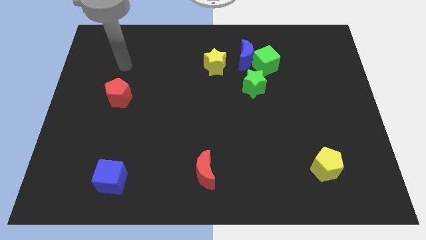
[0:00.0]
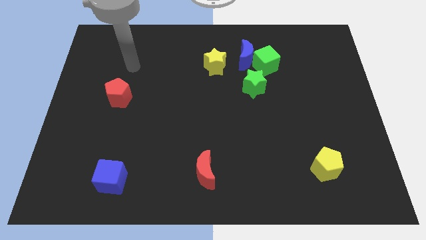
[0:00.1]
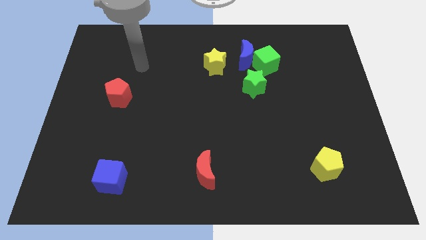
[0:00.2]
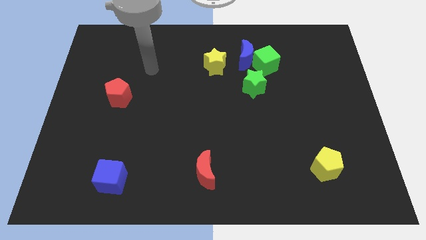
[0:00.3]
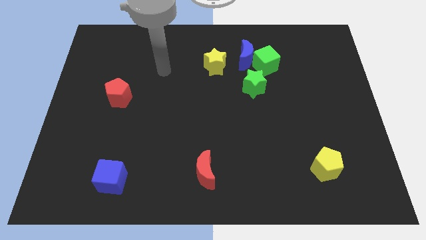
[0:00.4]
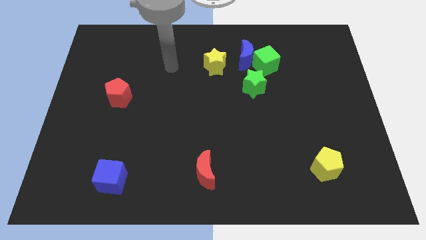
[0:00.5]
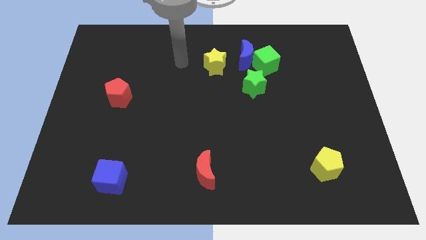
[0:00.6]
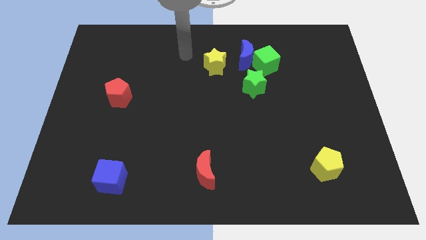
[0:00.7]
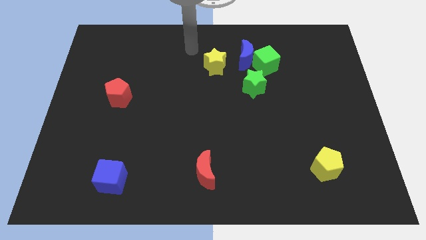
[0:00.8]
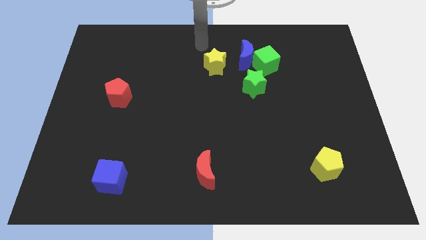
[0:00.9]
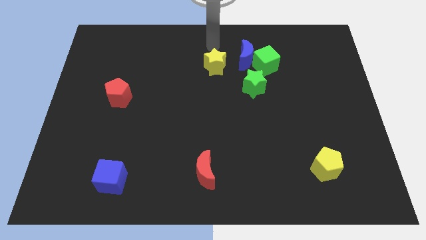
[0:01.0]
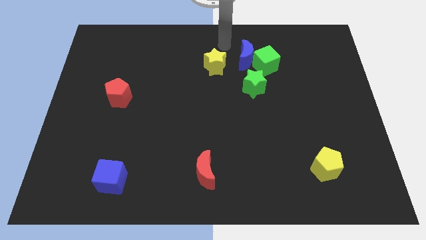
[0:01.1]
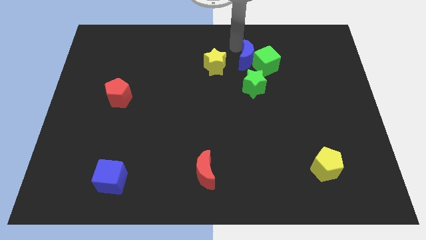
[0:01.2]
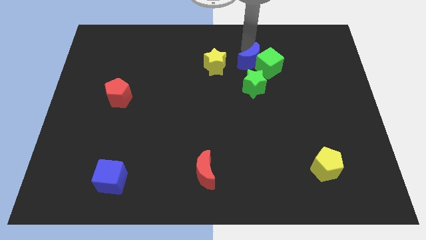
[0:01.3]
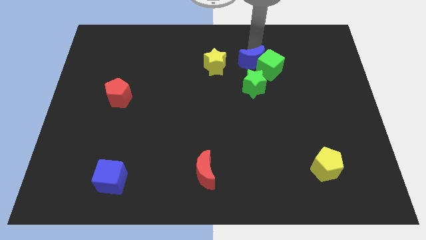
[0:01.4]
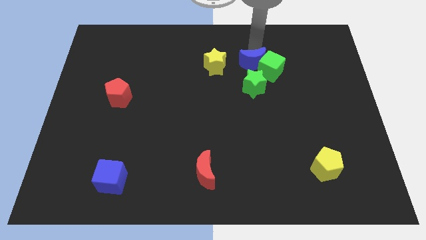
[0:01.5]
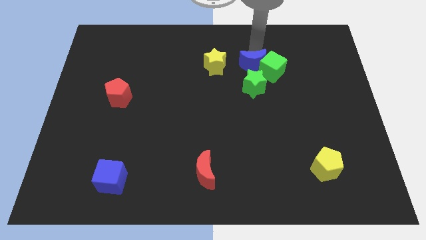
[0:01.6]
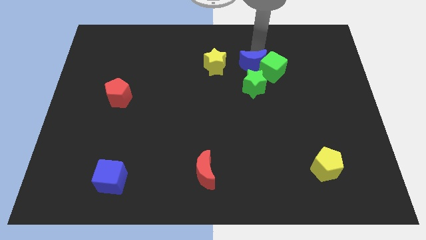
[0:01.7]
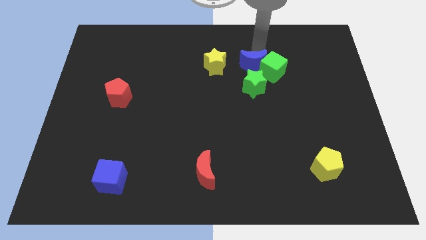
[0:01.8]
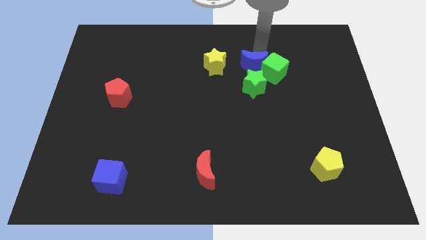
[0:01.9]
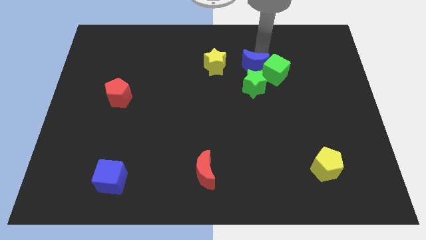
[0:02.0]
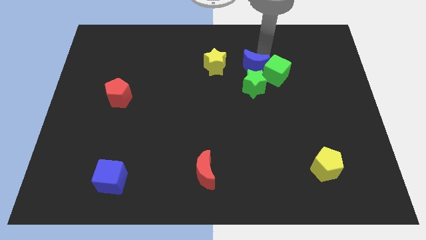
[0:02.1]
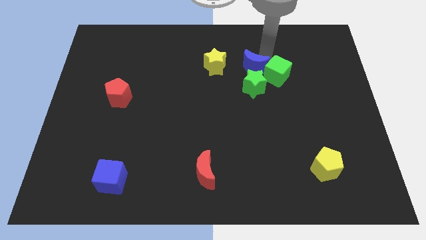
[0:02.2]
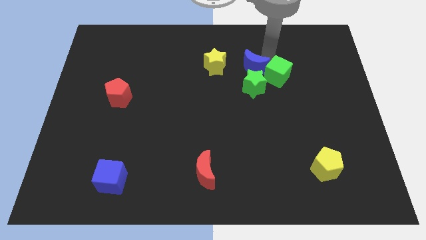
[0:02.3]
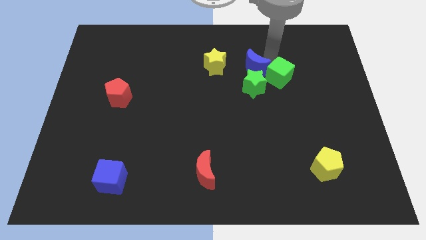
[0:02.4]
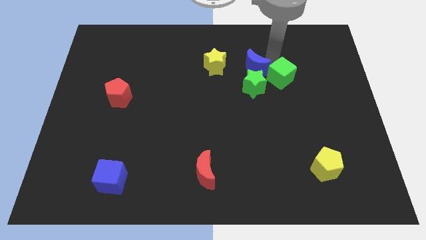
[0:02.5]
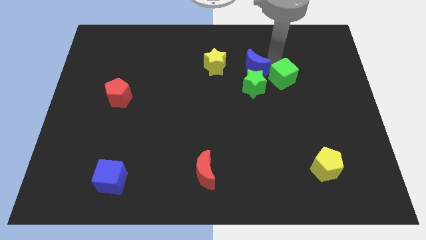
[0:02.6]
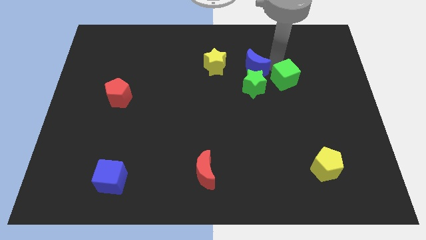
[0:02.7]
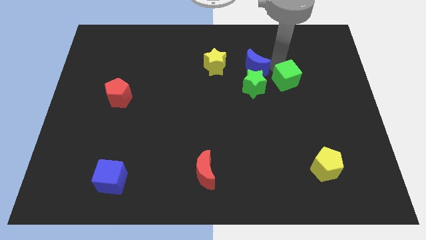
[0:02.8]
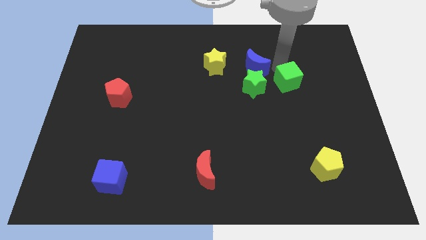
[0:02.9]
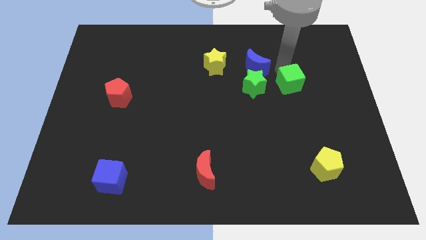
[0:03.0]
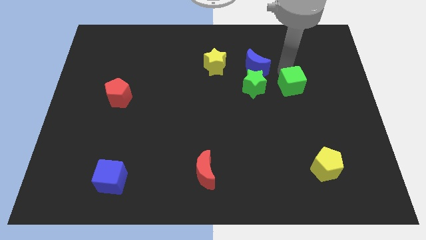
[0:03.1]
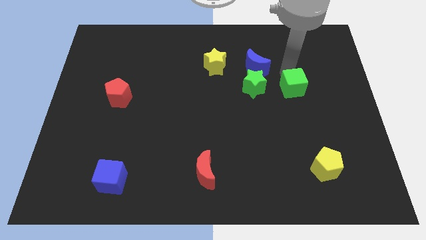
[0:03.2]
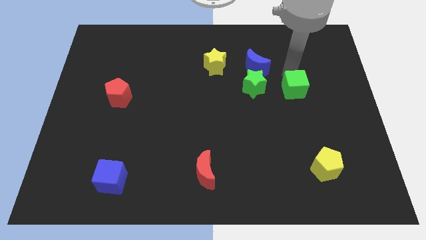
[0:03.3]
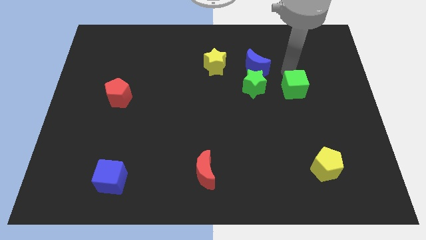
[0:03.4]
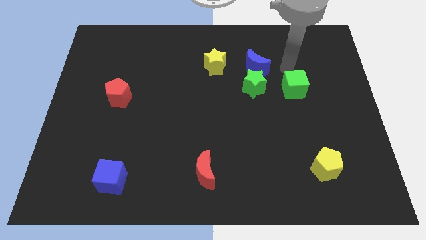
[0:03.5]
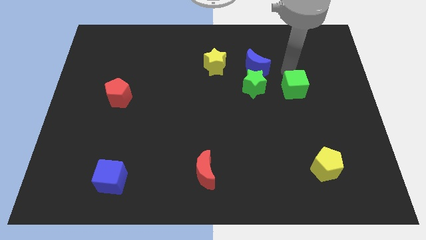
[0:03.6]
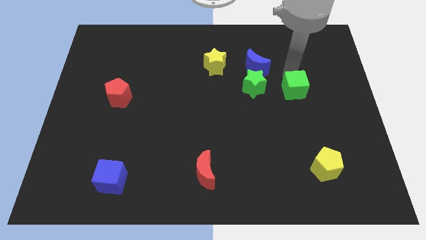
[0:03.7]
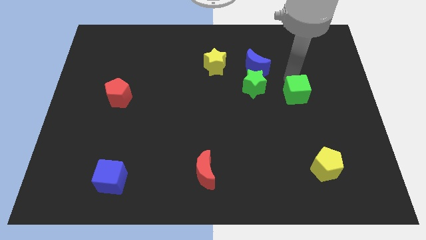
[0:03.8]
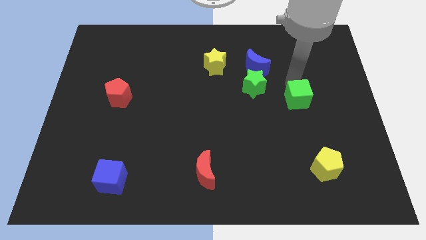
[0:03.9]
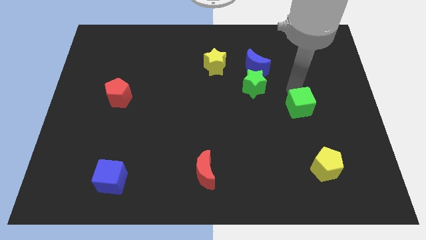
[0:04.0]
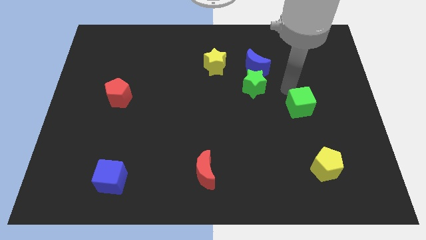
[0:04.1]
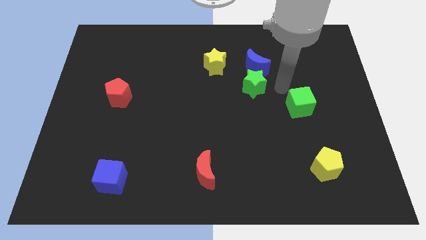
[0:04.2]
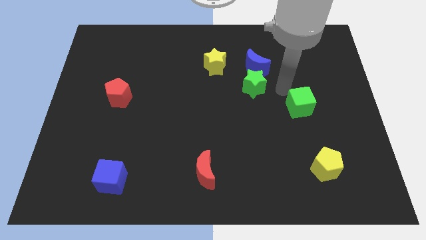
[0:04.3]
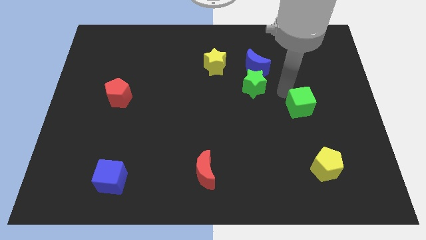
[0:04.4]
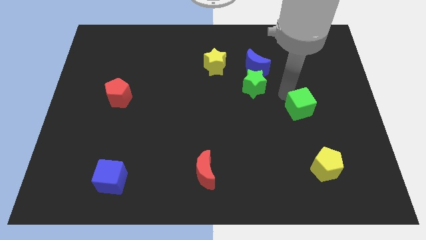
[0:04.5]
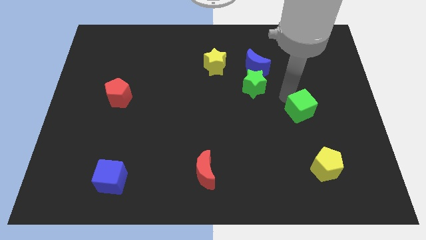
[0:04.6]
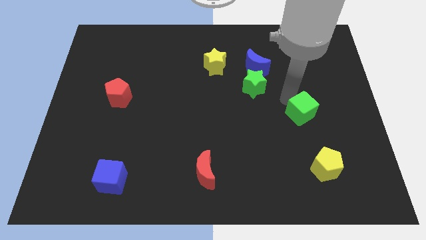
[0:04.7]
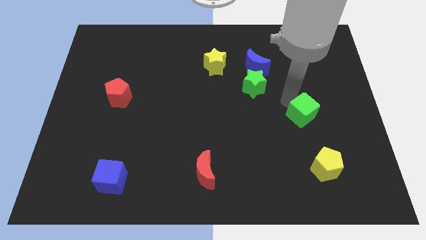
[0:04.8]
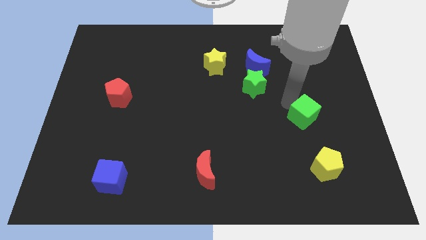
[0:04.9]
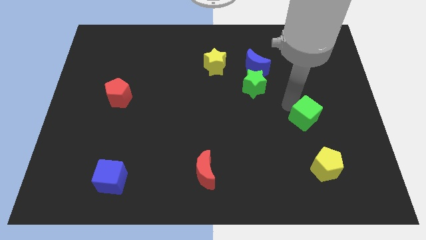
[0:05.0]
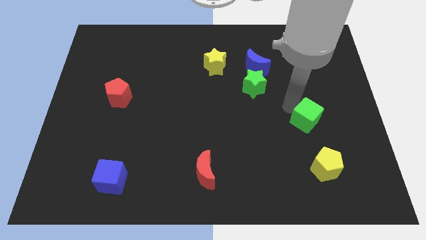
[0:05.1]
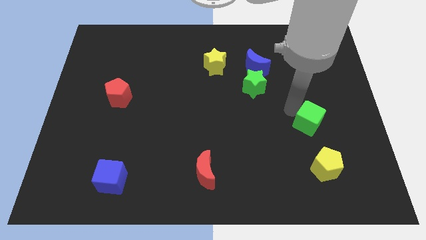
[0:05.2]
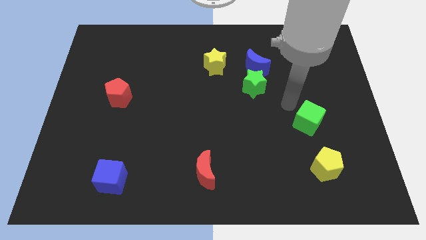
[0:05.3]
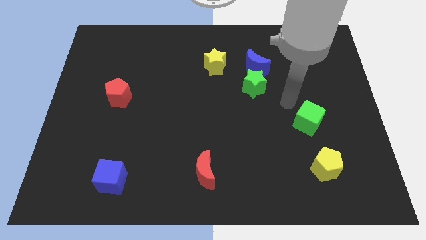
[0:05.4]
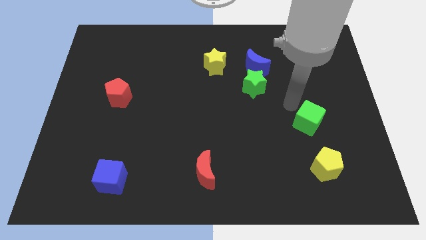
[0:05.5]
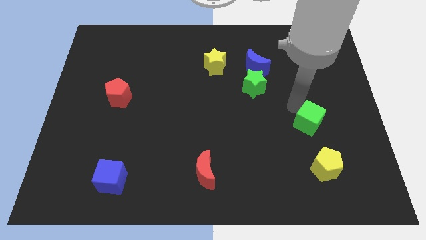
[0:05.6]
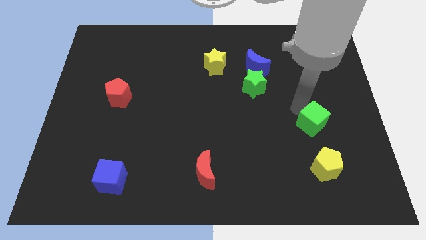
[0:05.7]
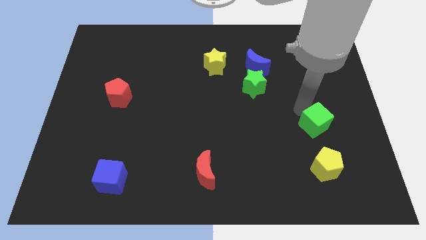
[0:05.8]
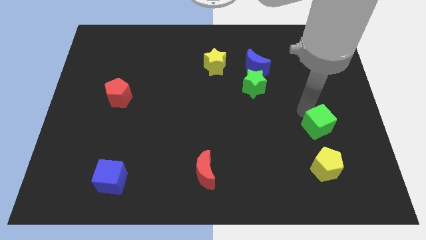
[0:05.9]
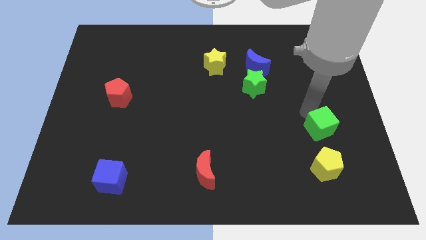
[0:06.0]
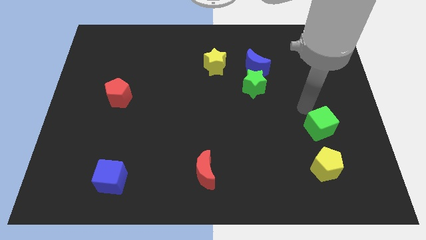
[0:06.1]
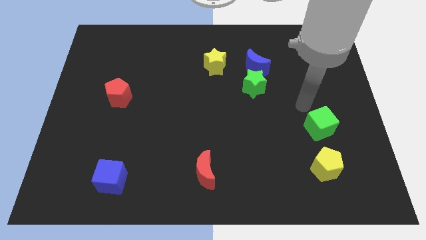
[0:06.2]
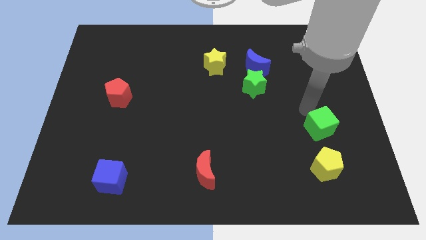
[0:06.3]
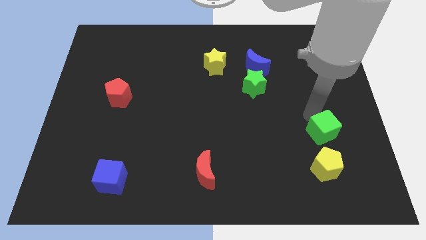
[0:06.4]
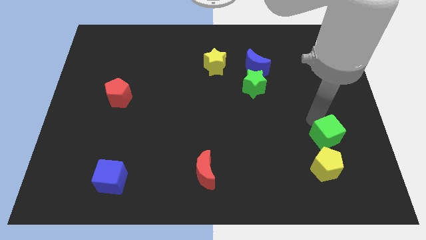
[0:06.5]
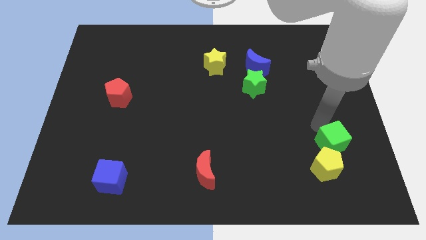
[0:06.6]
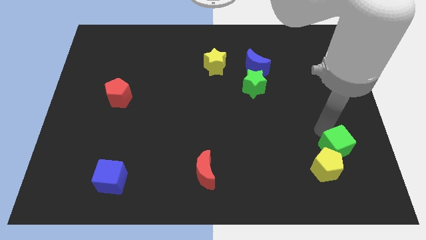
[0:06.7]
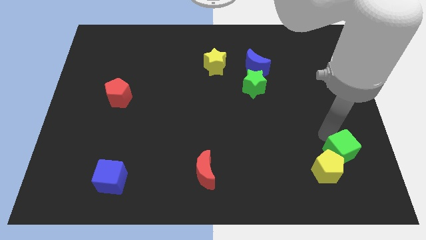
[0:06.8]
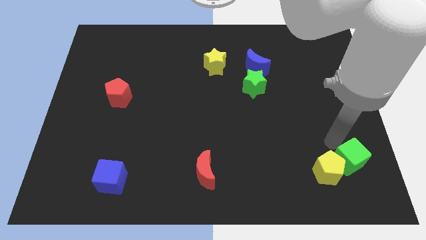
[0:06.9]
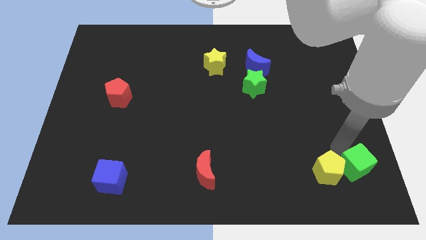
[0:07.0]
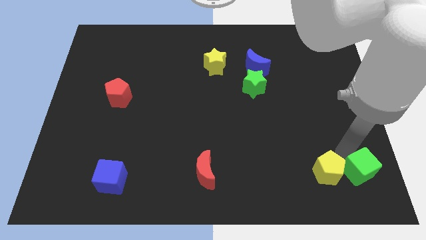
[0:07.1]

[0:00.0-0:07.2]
put the green cube to the bottom right of the board
